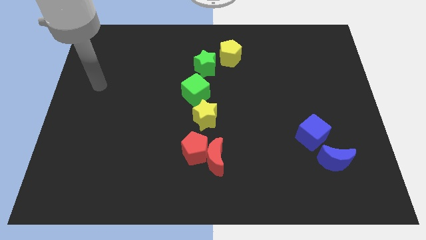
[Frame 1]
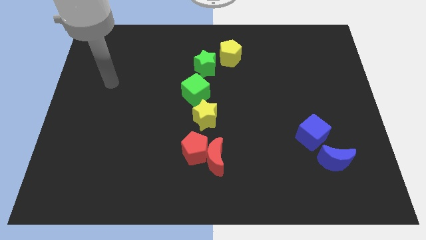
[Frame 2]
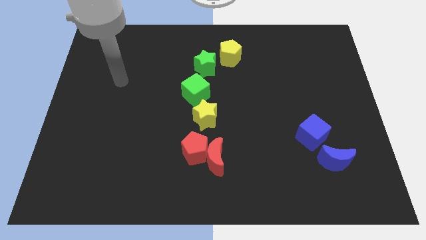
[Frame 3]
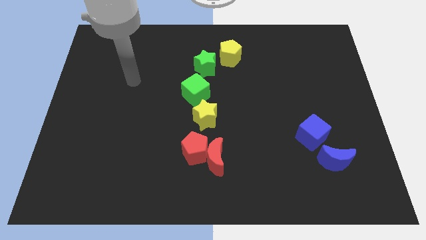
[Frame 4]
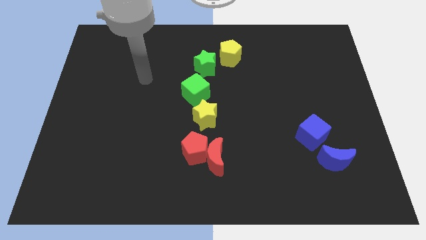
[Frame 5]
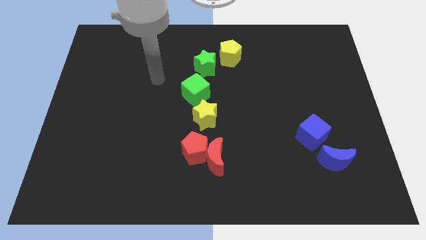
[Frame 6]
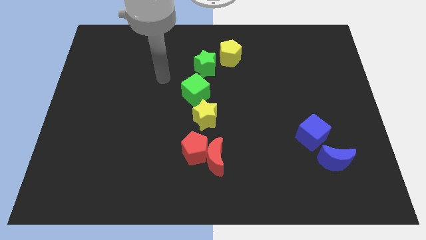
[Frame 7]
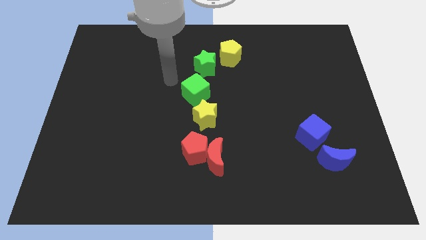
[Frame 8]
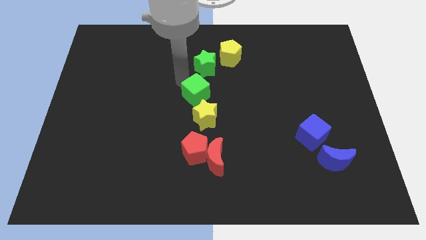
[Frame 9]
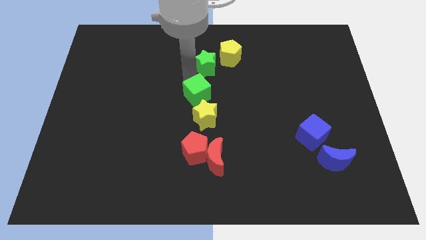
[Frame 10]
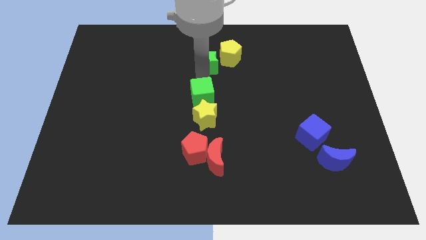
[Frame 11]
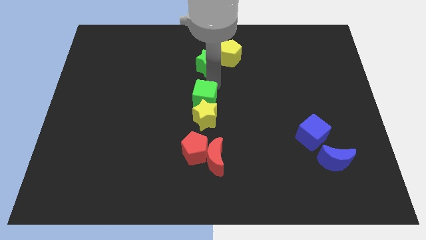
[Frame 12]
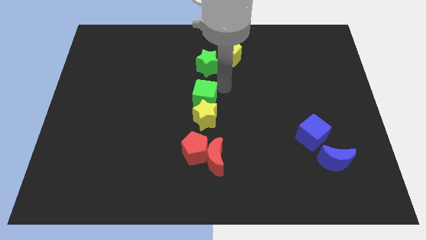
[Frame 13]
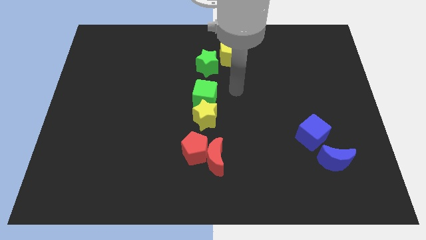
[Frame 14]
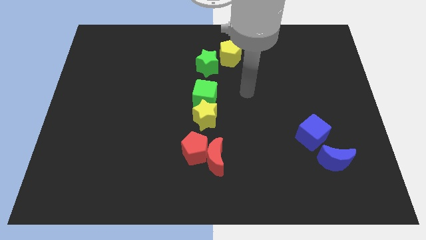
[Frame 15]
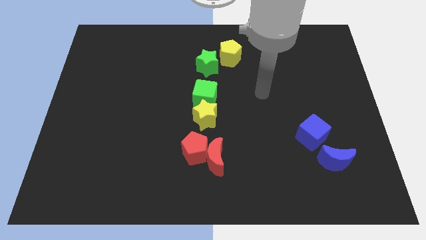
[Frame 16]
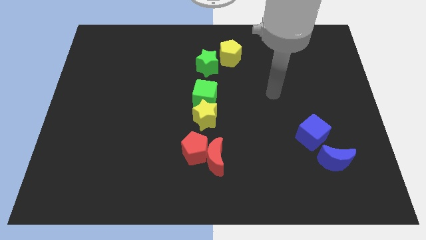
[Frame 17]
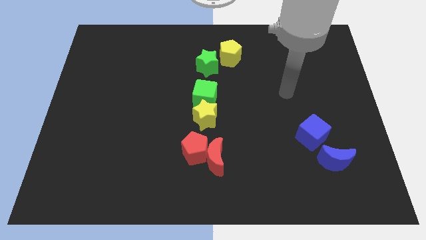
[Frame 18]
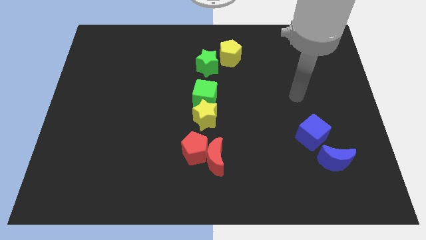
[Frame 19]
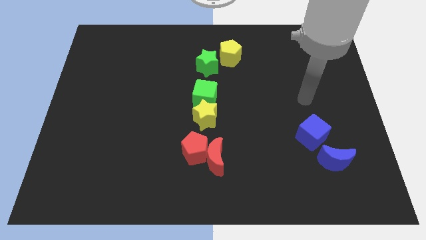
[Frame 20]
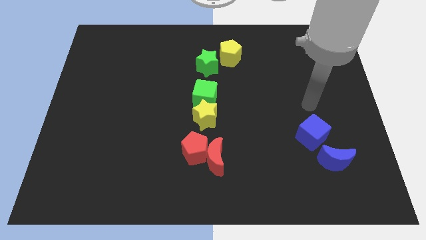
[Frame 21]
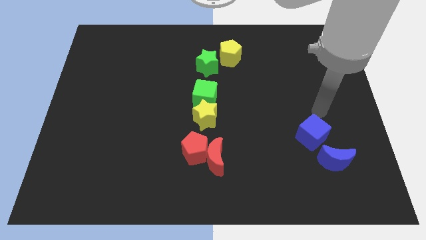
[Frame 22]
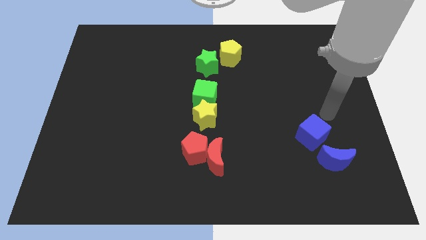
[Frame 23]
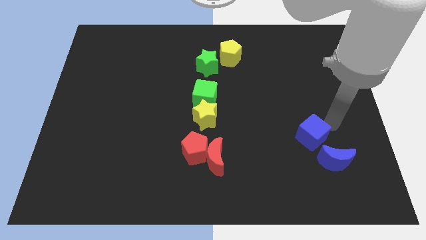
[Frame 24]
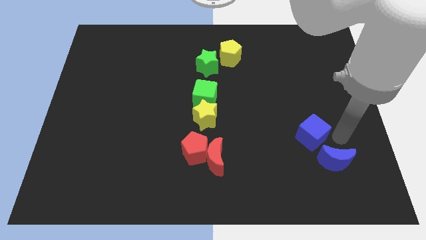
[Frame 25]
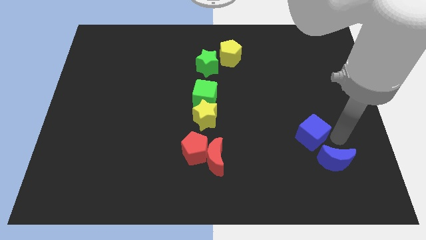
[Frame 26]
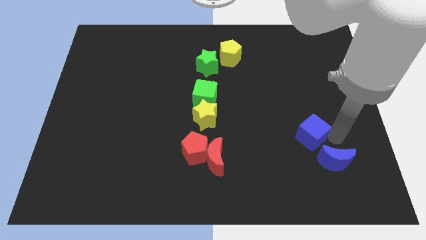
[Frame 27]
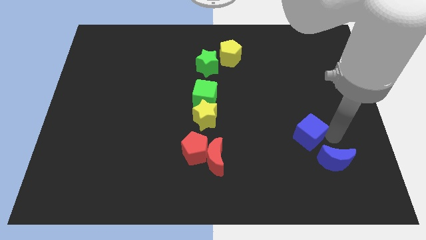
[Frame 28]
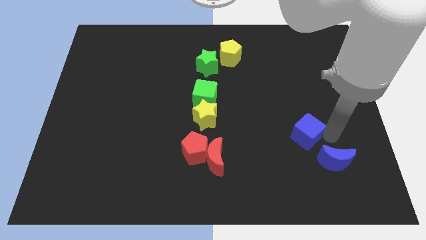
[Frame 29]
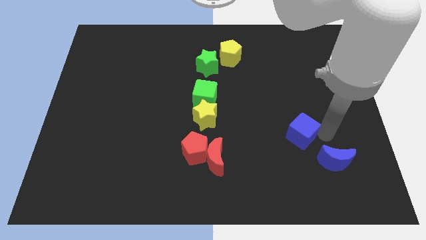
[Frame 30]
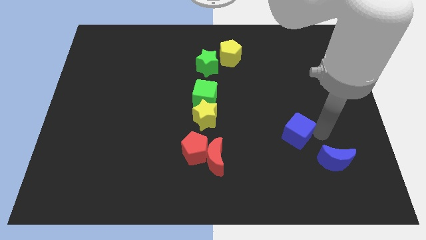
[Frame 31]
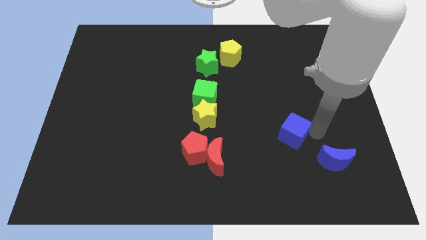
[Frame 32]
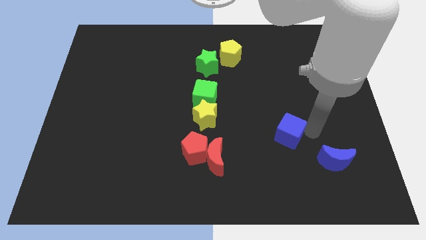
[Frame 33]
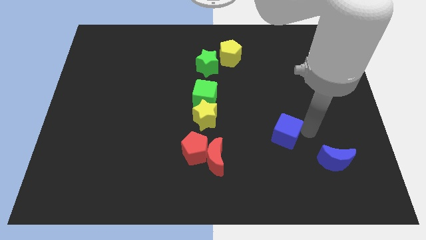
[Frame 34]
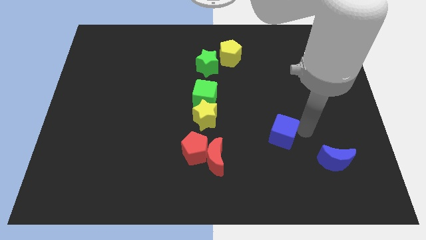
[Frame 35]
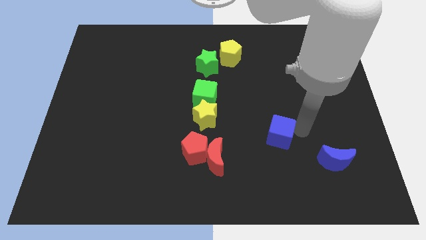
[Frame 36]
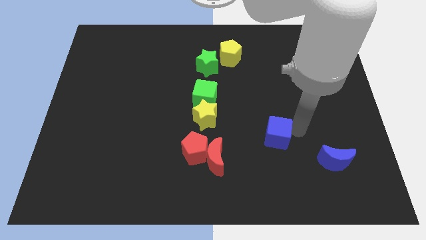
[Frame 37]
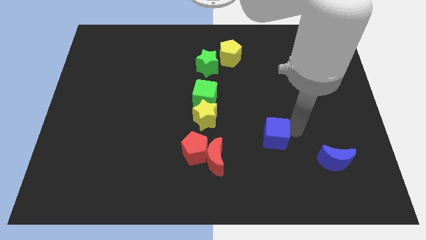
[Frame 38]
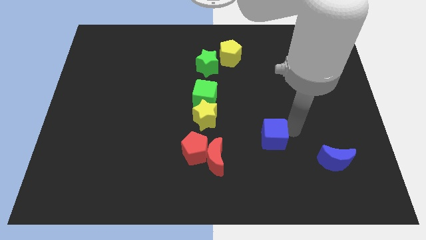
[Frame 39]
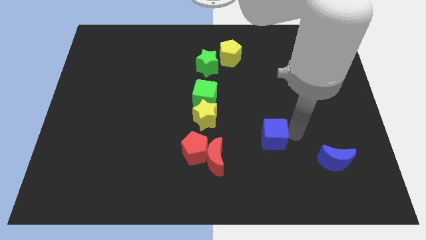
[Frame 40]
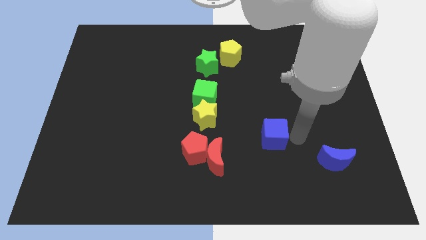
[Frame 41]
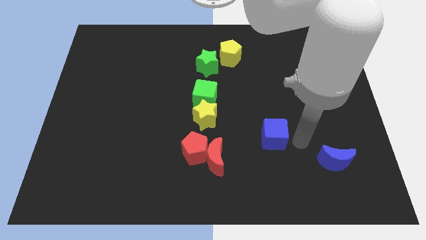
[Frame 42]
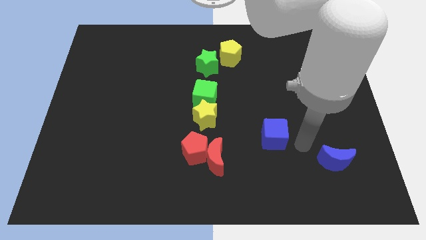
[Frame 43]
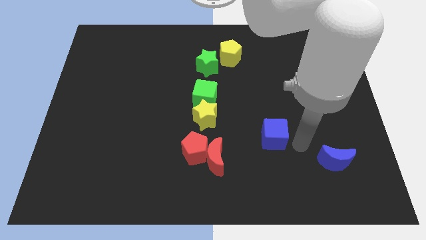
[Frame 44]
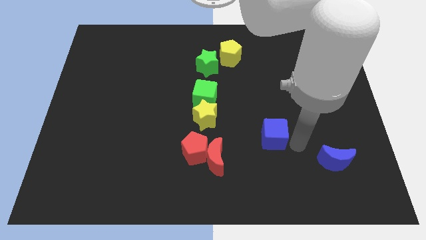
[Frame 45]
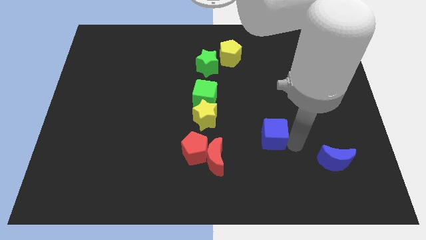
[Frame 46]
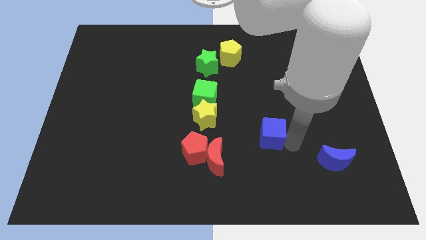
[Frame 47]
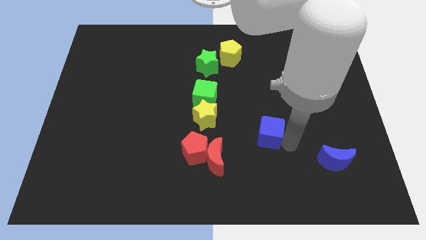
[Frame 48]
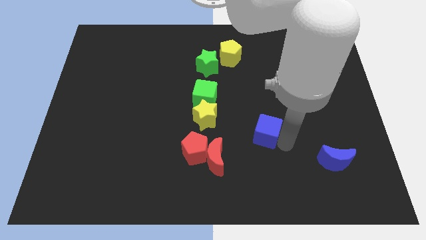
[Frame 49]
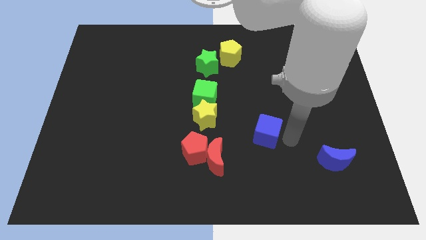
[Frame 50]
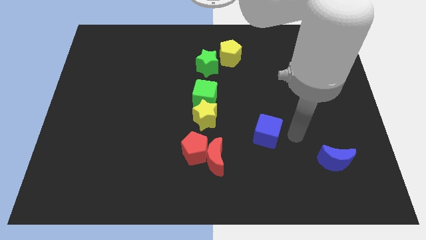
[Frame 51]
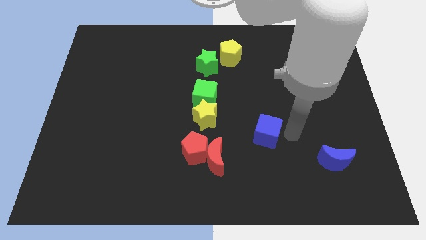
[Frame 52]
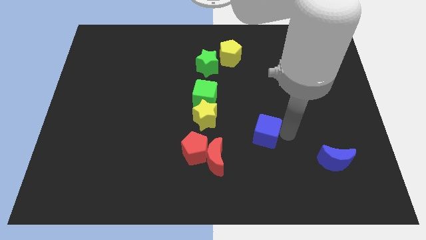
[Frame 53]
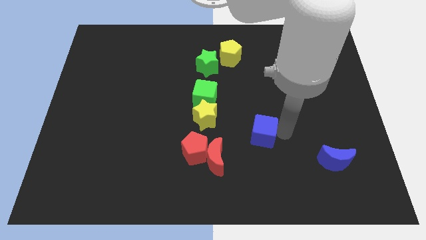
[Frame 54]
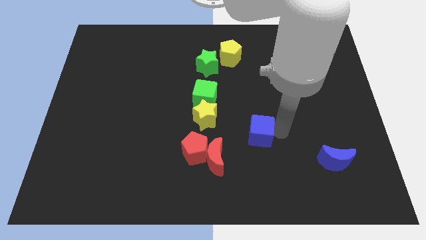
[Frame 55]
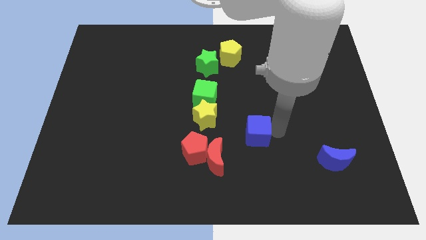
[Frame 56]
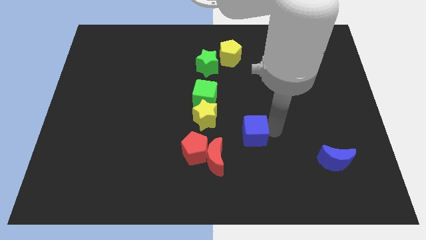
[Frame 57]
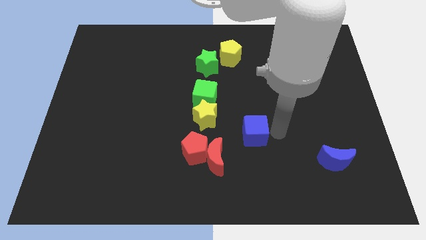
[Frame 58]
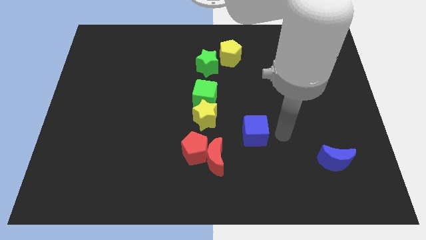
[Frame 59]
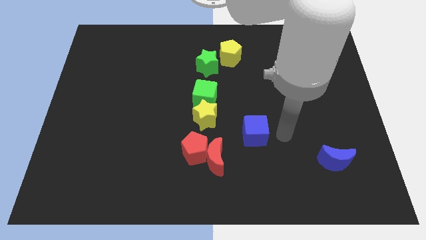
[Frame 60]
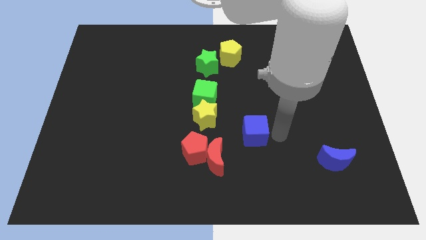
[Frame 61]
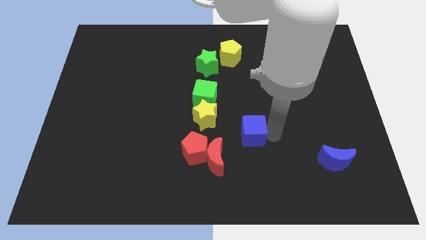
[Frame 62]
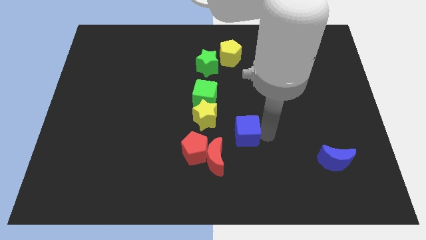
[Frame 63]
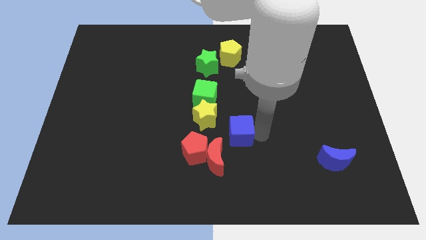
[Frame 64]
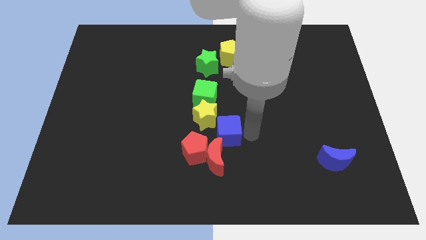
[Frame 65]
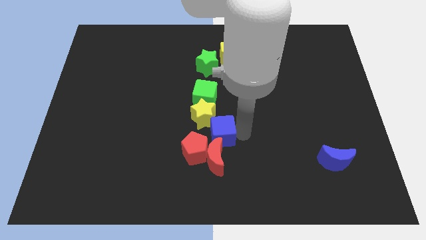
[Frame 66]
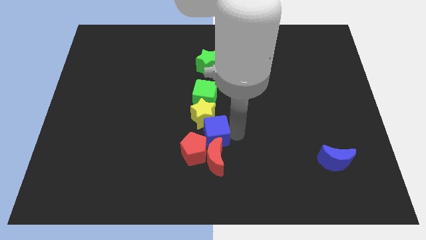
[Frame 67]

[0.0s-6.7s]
slide the blue cube to the red pentagon
